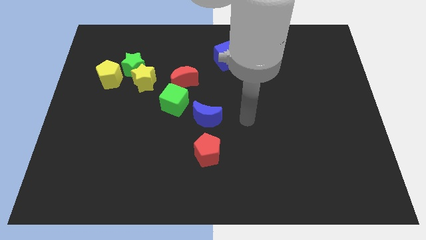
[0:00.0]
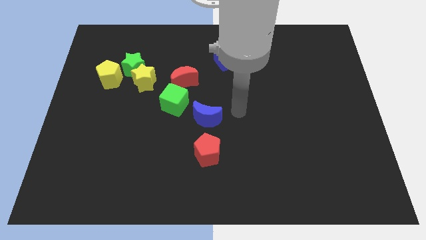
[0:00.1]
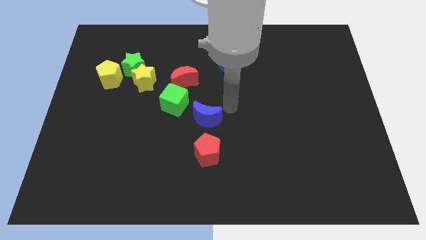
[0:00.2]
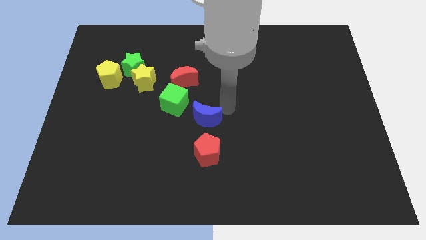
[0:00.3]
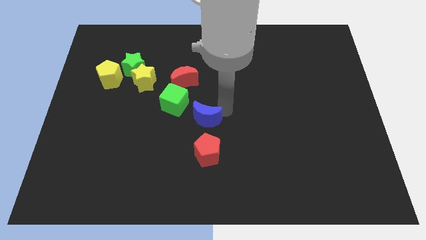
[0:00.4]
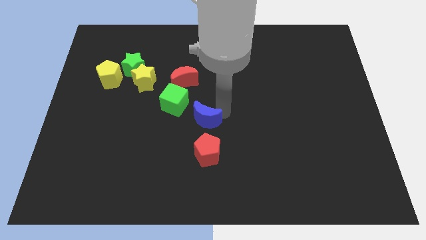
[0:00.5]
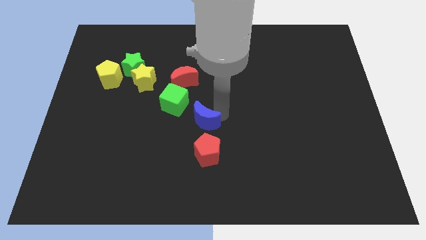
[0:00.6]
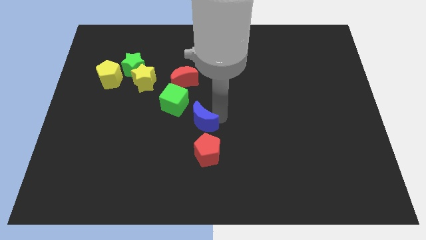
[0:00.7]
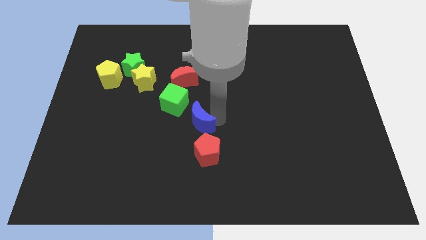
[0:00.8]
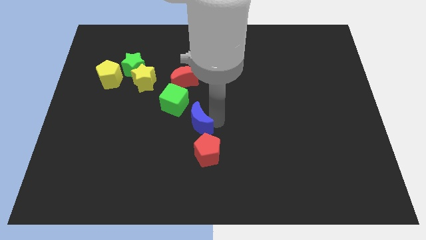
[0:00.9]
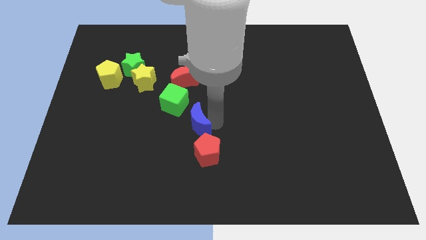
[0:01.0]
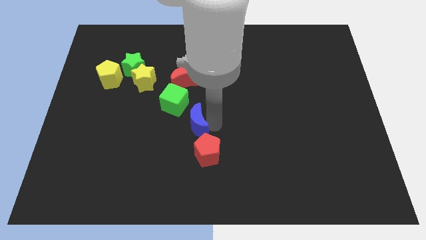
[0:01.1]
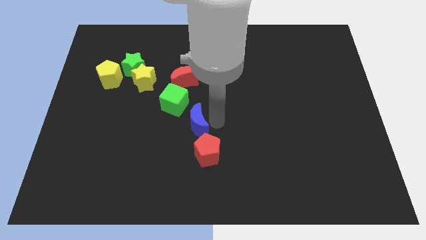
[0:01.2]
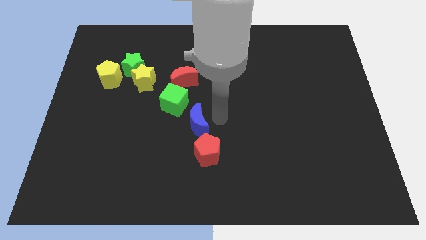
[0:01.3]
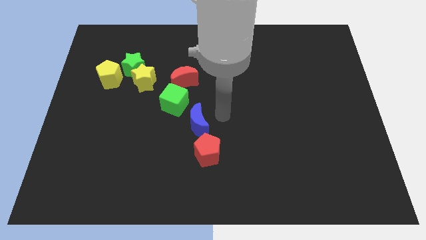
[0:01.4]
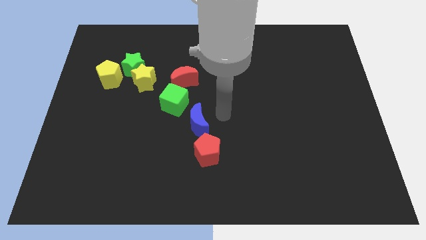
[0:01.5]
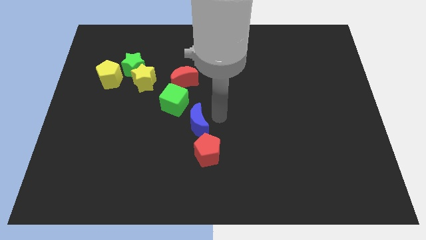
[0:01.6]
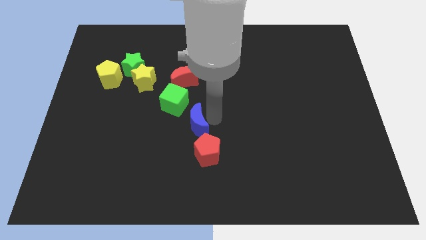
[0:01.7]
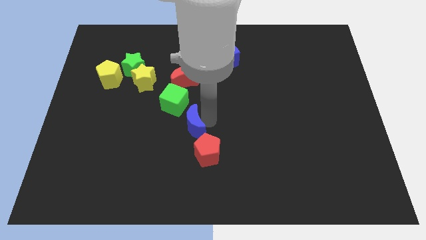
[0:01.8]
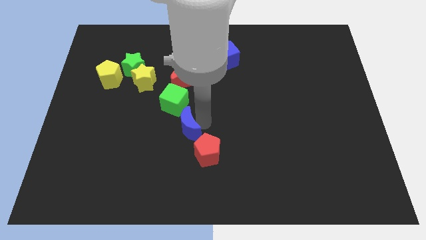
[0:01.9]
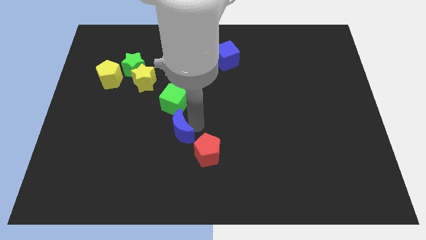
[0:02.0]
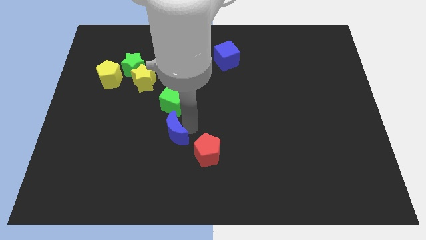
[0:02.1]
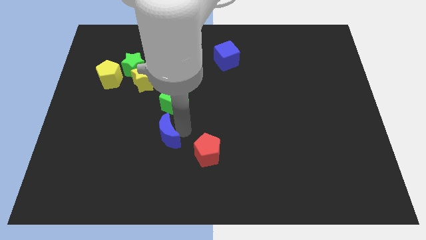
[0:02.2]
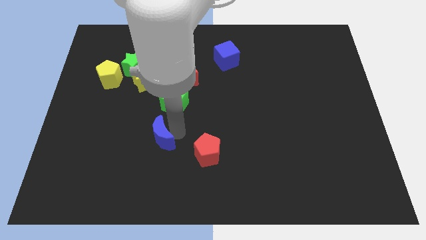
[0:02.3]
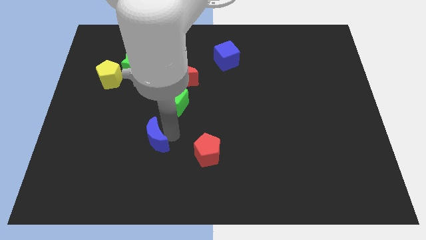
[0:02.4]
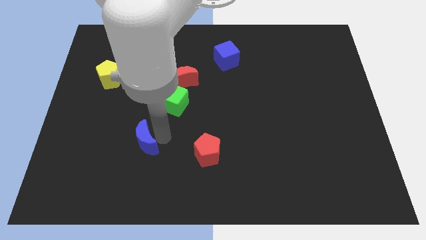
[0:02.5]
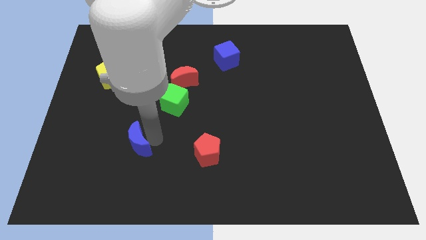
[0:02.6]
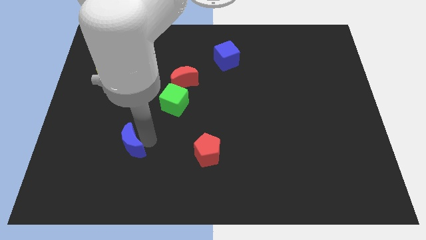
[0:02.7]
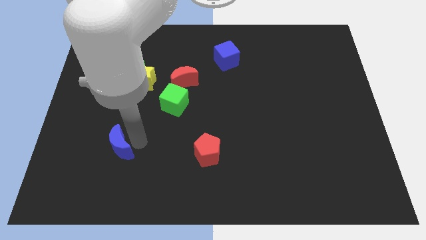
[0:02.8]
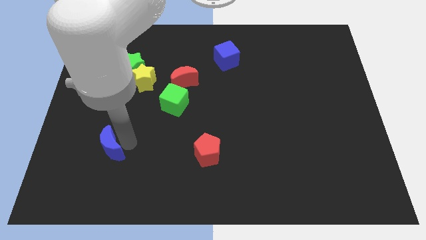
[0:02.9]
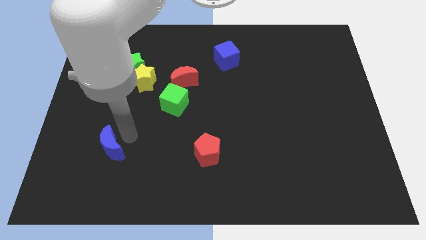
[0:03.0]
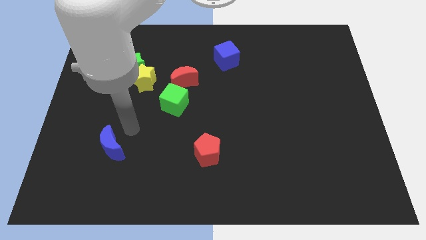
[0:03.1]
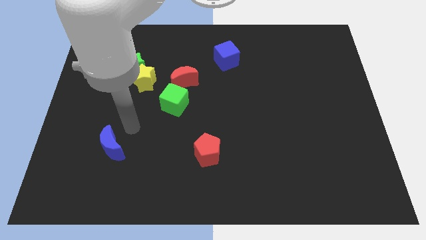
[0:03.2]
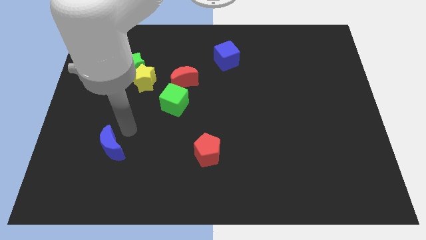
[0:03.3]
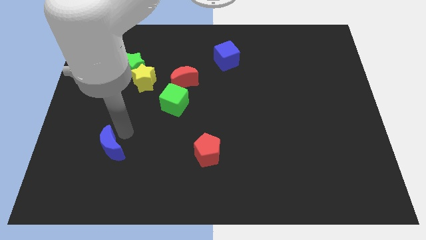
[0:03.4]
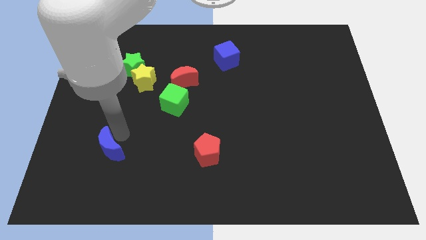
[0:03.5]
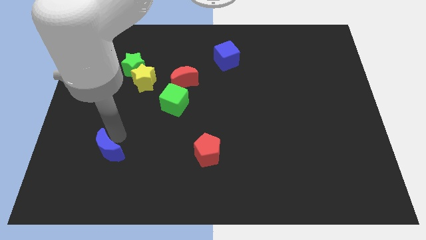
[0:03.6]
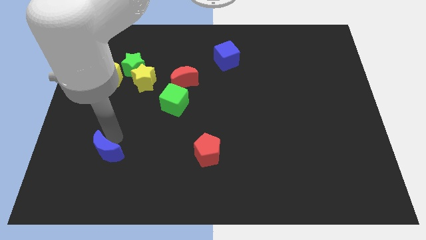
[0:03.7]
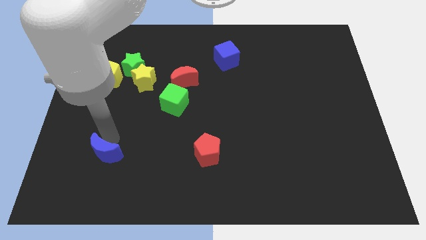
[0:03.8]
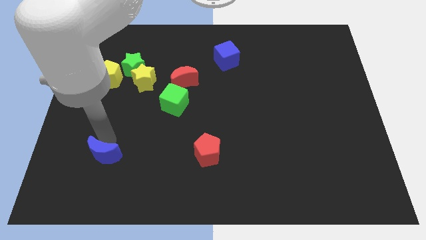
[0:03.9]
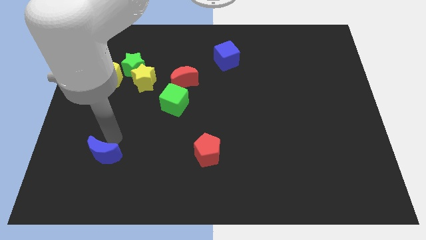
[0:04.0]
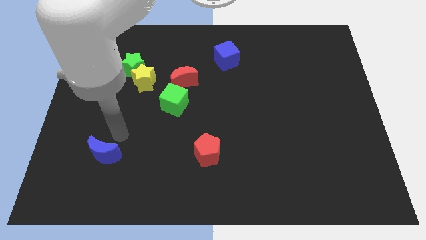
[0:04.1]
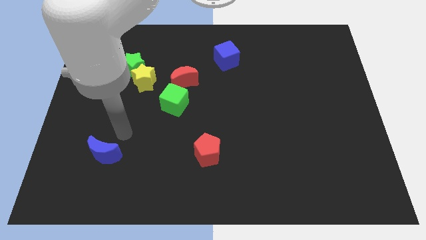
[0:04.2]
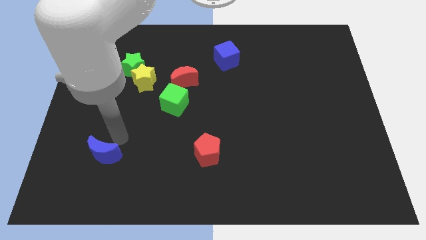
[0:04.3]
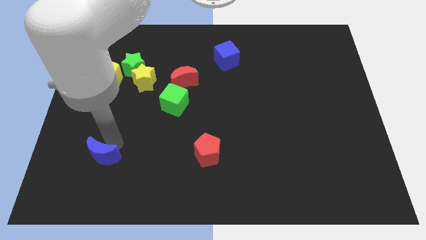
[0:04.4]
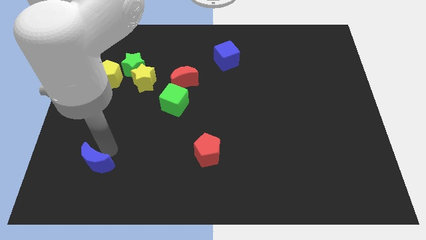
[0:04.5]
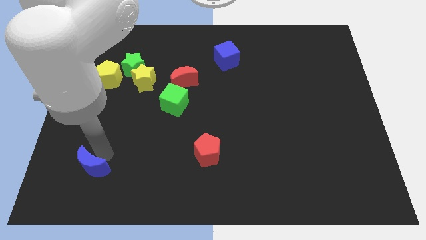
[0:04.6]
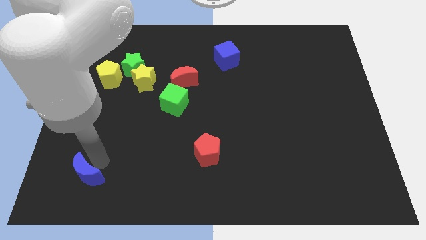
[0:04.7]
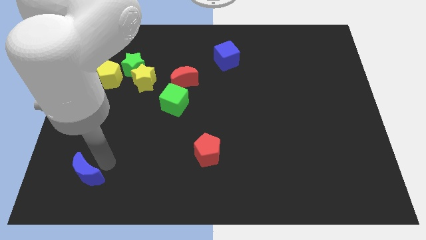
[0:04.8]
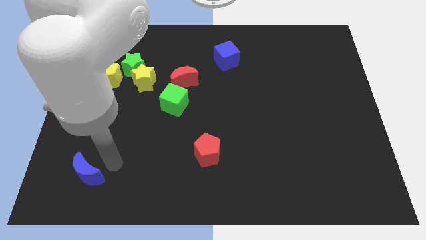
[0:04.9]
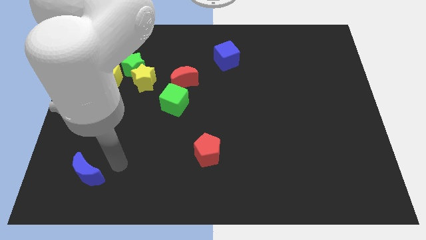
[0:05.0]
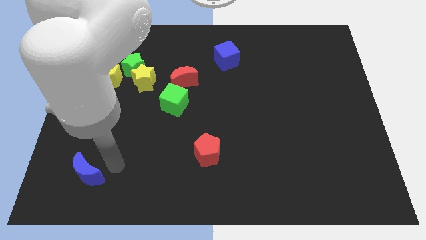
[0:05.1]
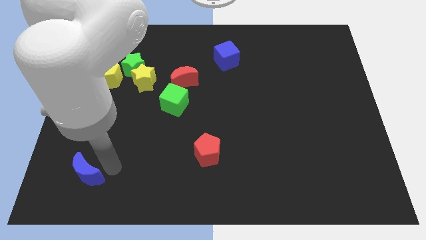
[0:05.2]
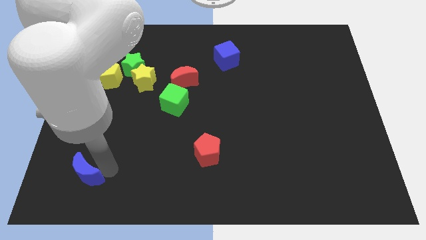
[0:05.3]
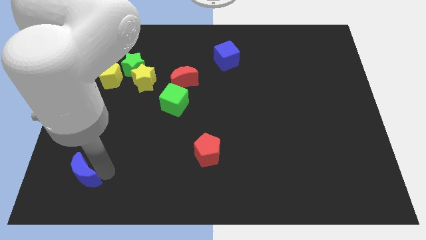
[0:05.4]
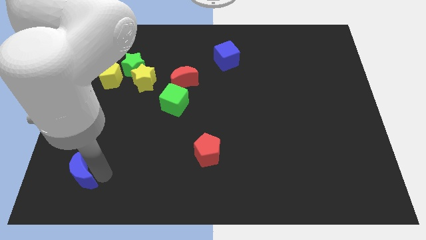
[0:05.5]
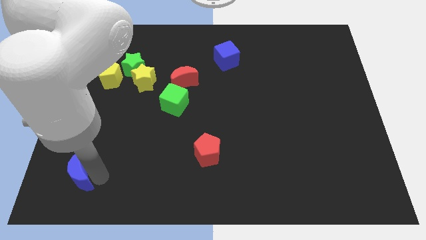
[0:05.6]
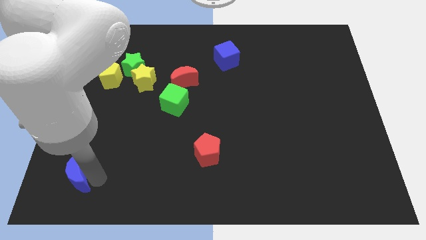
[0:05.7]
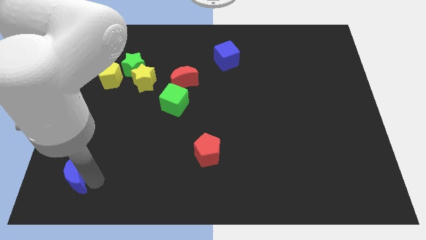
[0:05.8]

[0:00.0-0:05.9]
move the blue moon to the bottom left
